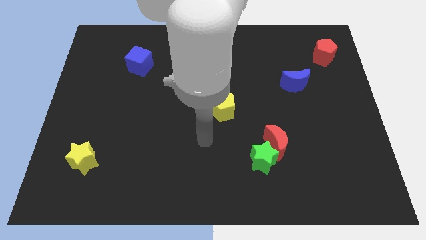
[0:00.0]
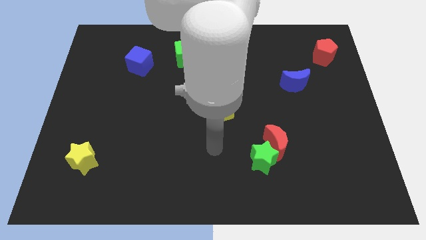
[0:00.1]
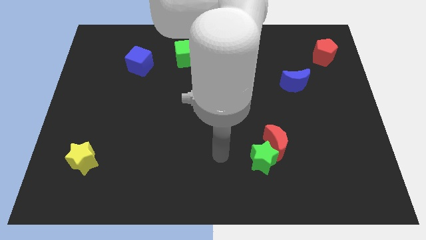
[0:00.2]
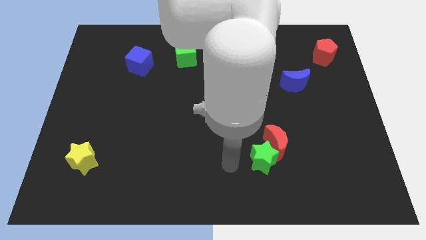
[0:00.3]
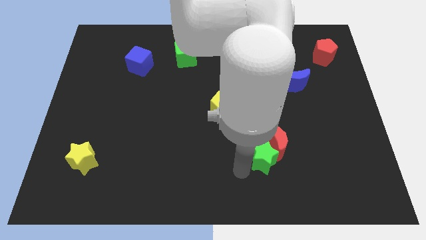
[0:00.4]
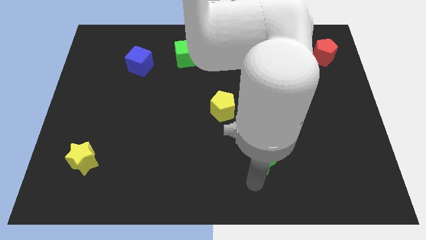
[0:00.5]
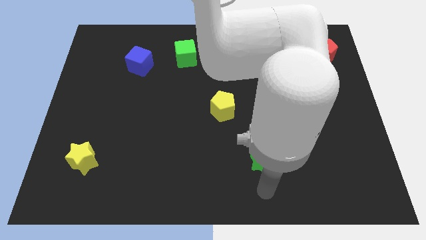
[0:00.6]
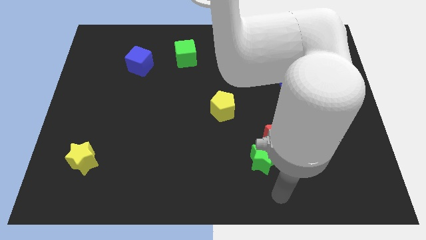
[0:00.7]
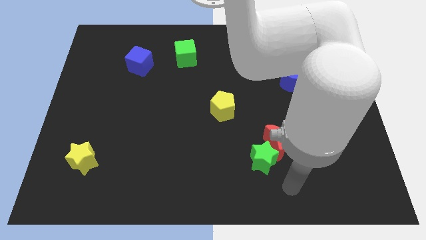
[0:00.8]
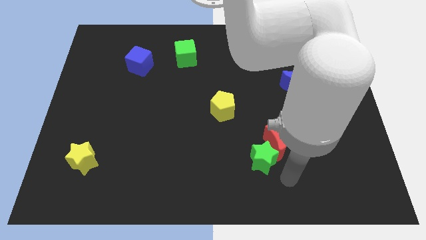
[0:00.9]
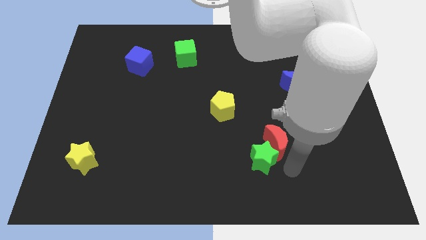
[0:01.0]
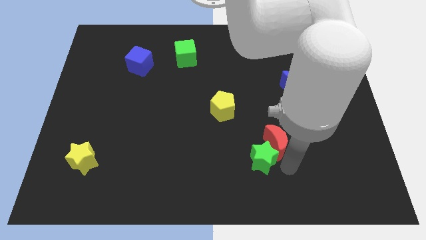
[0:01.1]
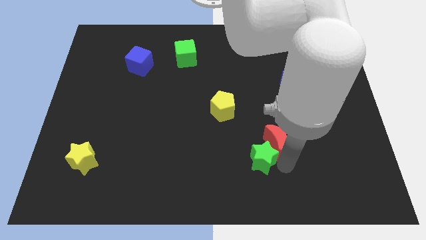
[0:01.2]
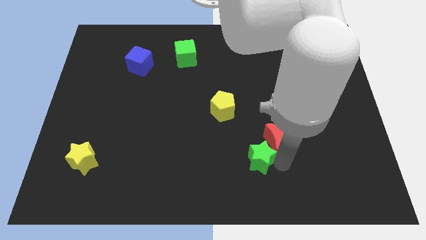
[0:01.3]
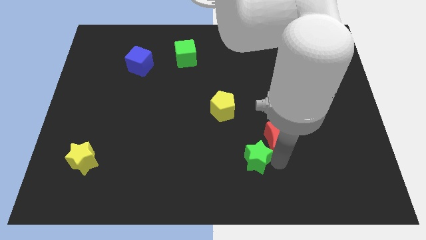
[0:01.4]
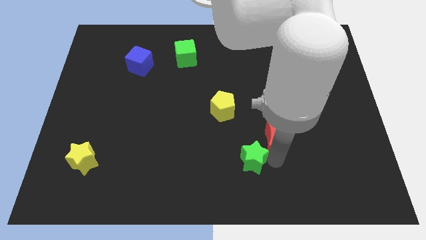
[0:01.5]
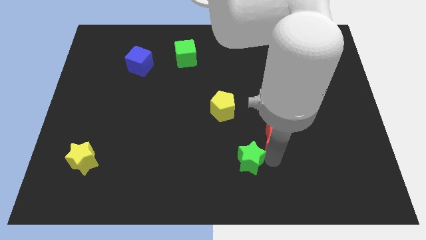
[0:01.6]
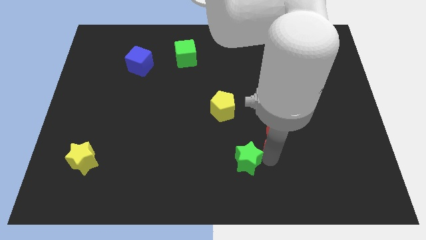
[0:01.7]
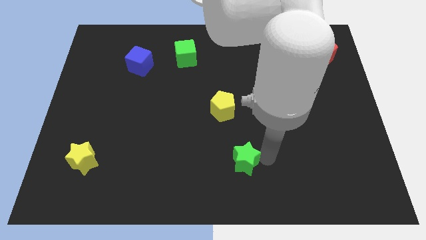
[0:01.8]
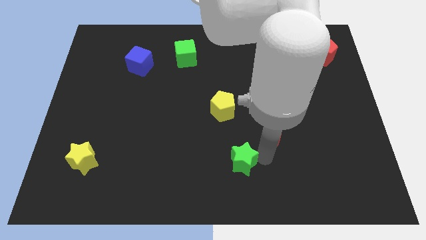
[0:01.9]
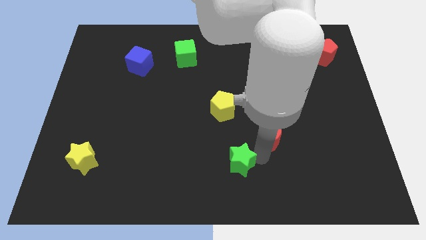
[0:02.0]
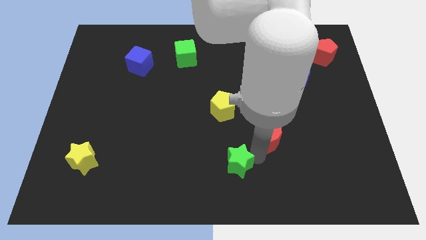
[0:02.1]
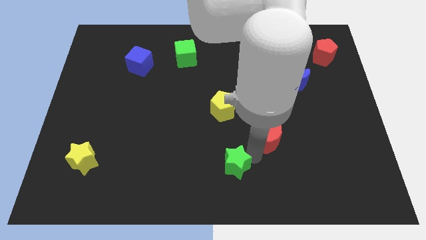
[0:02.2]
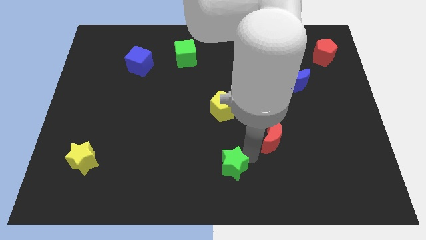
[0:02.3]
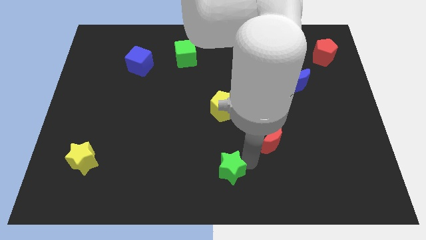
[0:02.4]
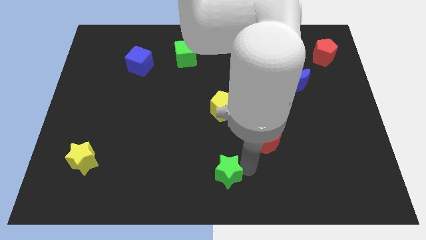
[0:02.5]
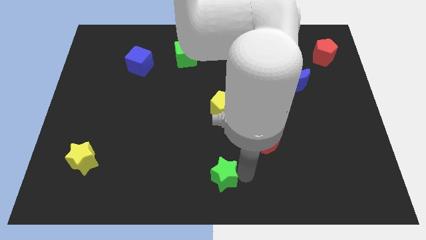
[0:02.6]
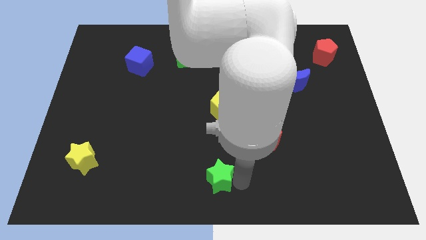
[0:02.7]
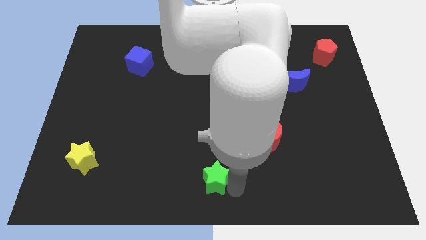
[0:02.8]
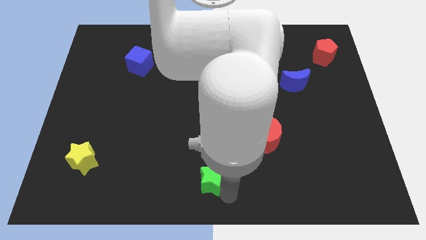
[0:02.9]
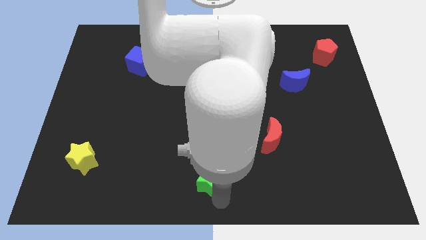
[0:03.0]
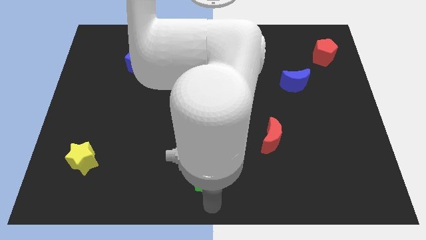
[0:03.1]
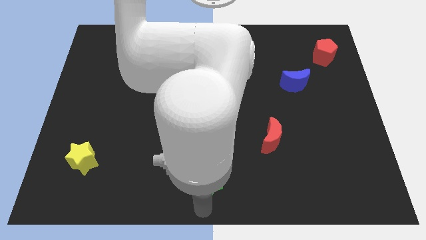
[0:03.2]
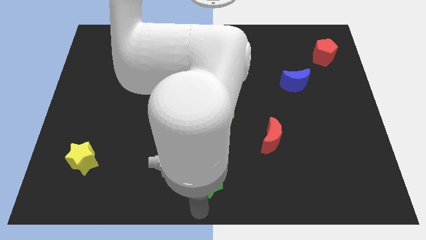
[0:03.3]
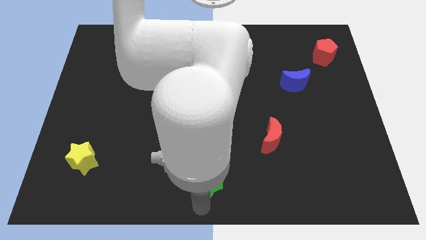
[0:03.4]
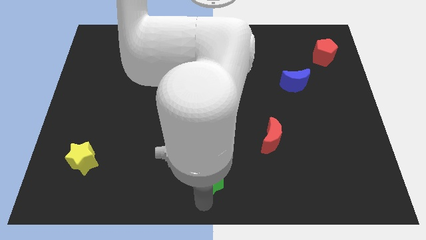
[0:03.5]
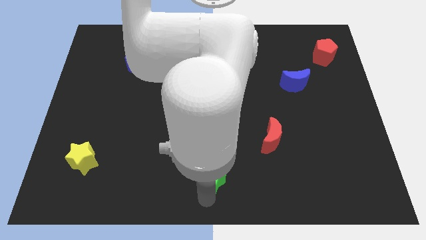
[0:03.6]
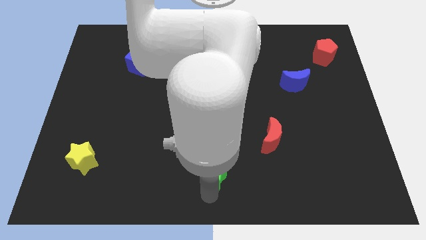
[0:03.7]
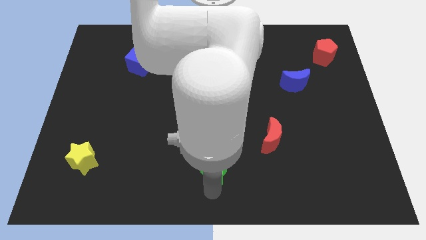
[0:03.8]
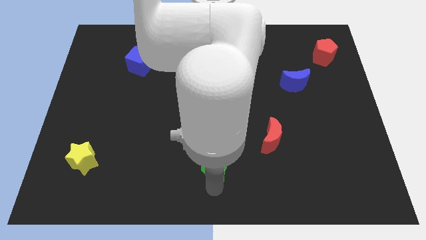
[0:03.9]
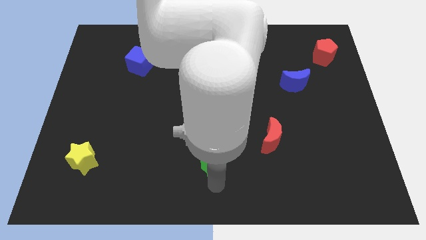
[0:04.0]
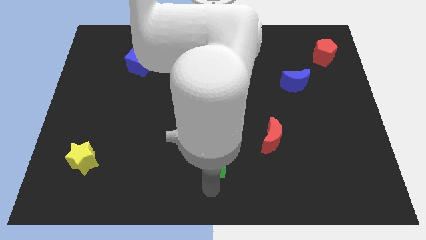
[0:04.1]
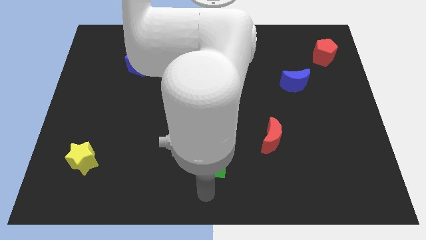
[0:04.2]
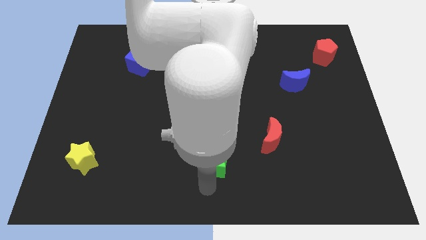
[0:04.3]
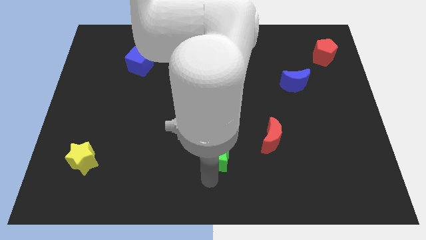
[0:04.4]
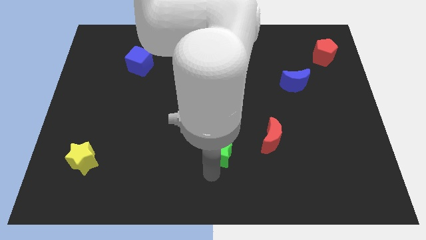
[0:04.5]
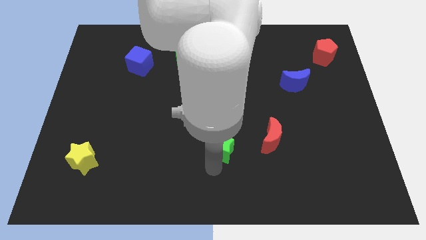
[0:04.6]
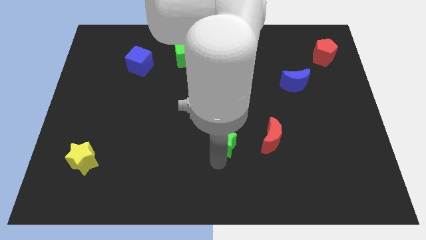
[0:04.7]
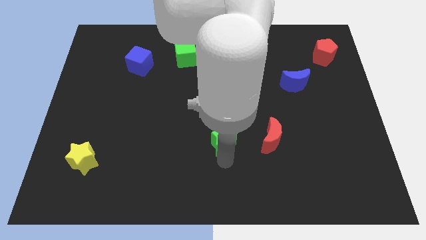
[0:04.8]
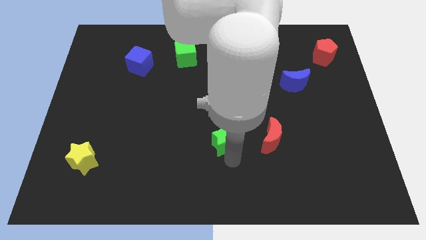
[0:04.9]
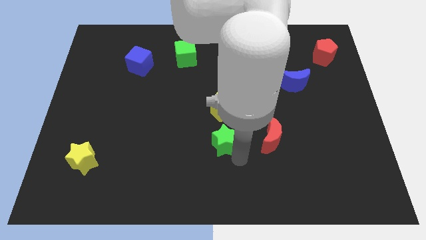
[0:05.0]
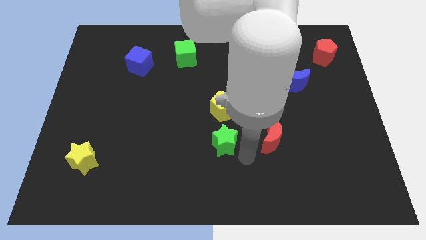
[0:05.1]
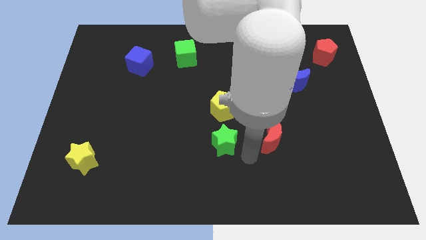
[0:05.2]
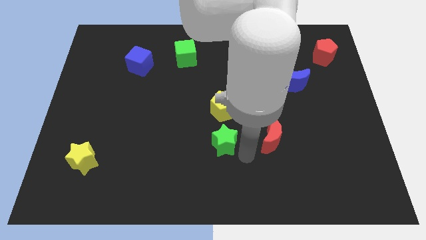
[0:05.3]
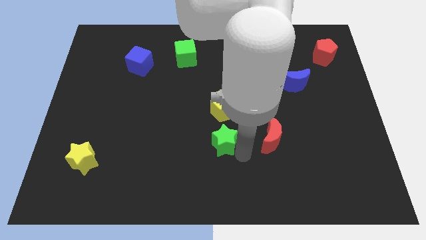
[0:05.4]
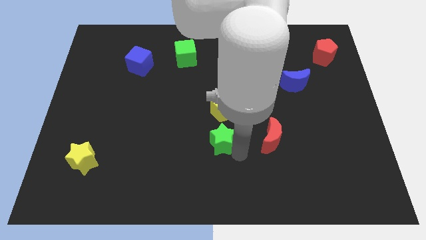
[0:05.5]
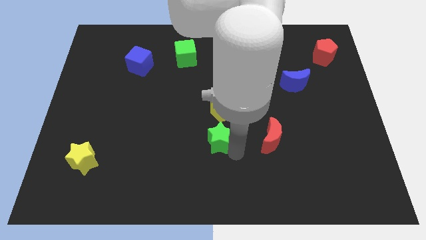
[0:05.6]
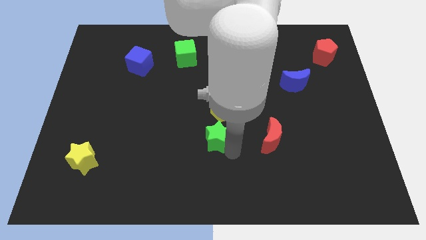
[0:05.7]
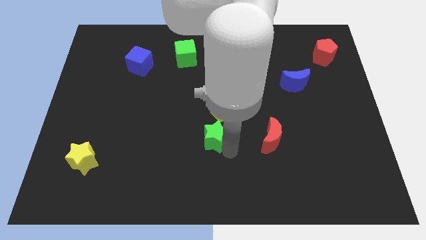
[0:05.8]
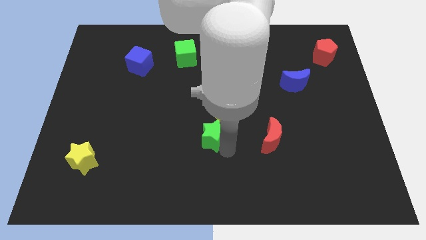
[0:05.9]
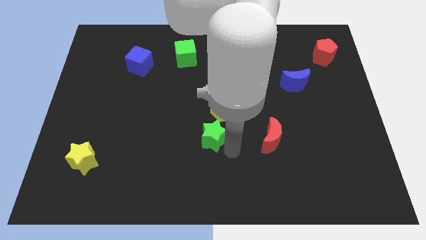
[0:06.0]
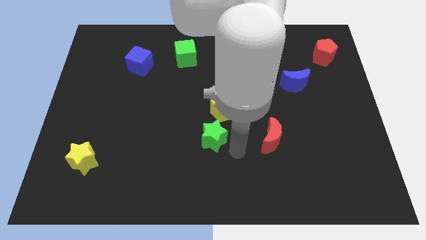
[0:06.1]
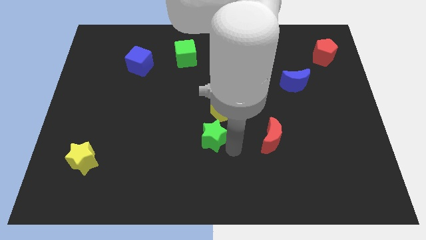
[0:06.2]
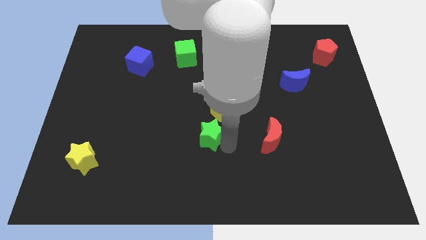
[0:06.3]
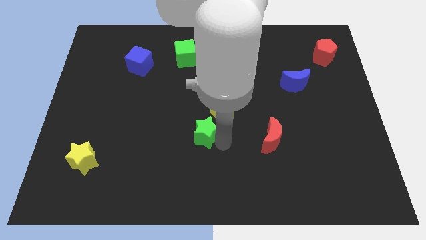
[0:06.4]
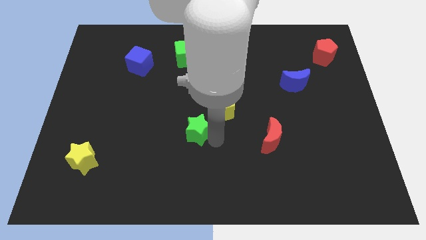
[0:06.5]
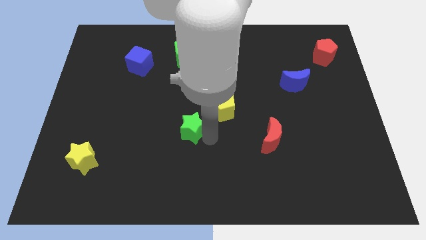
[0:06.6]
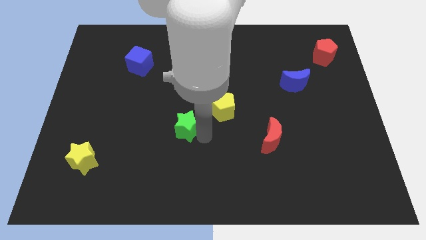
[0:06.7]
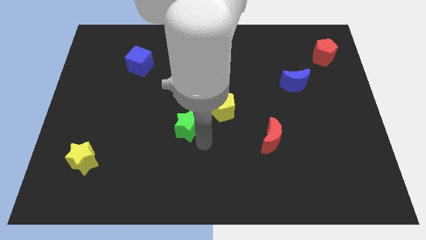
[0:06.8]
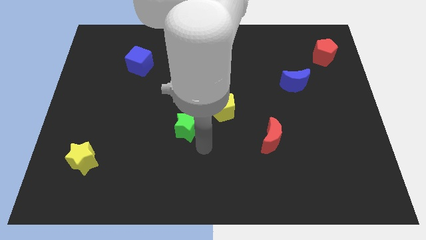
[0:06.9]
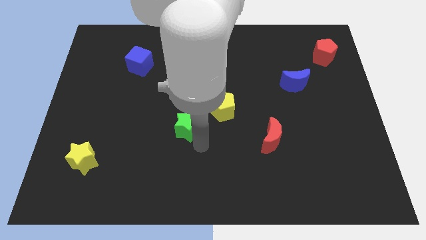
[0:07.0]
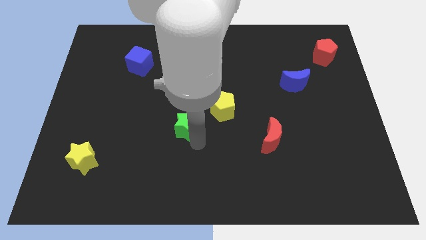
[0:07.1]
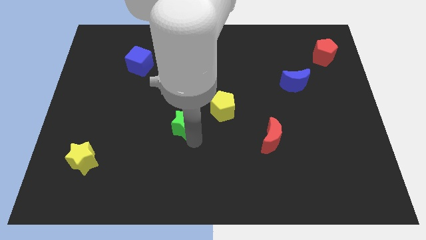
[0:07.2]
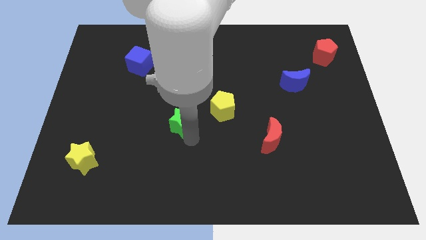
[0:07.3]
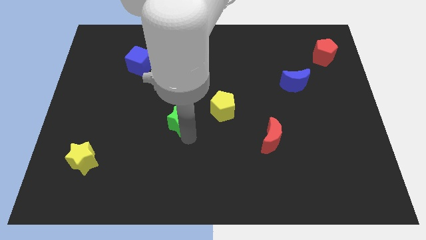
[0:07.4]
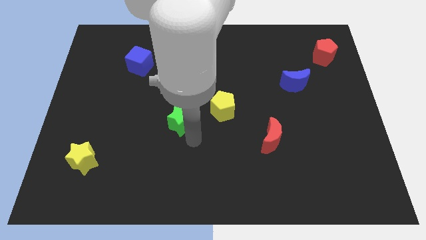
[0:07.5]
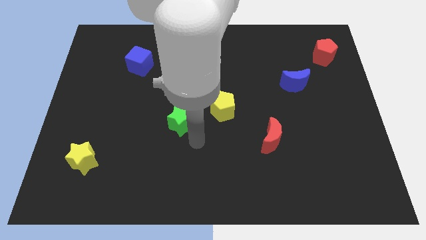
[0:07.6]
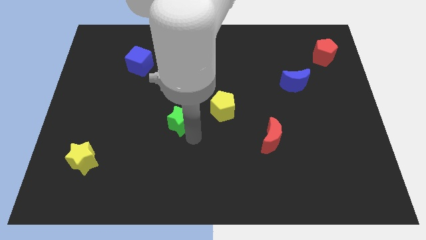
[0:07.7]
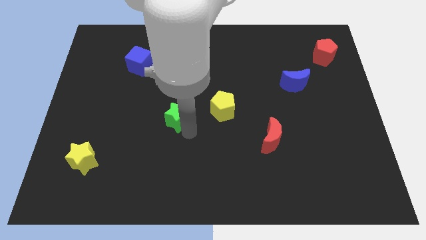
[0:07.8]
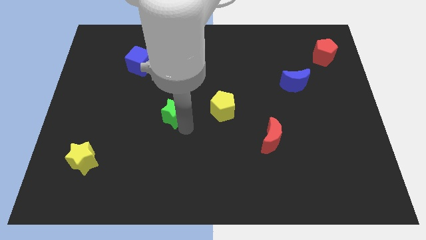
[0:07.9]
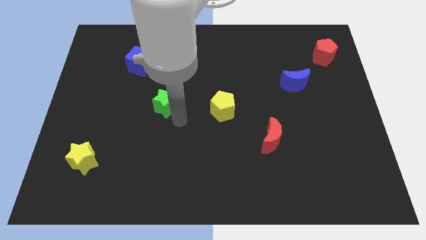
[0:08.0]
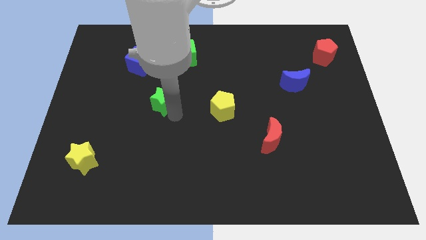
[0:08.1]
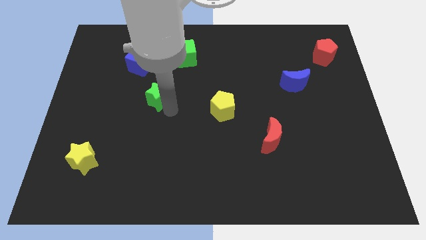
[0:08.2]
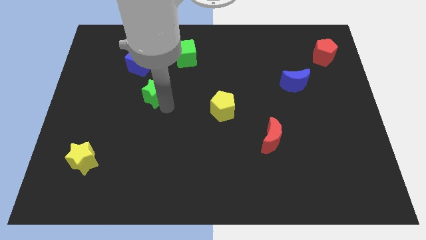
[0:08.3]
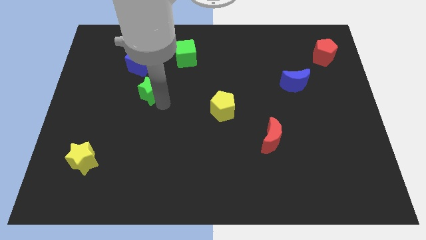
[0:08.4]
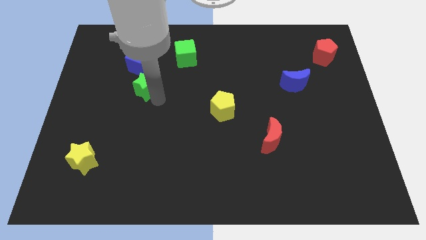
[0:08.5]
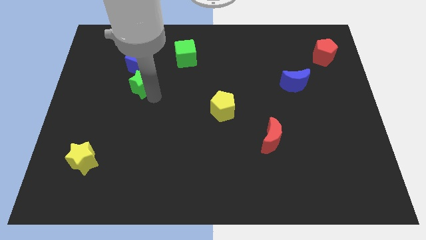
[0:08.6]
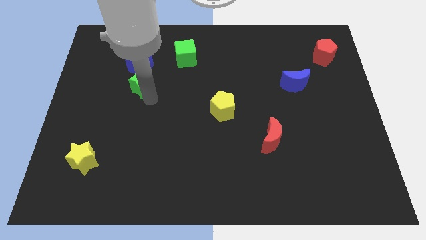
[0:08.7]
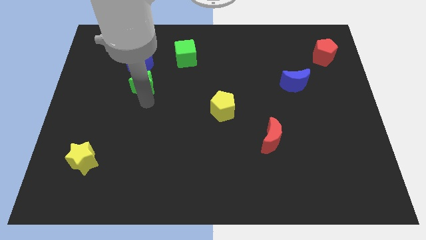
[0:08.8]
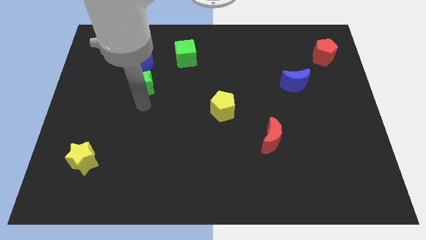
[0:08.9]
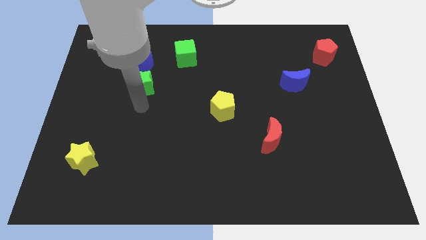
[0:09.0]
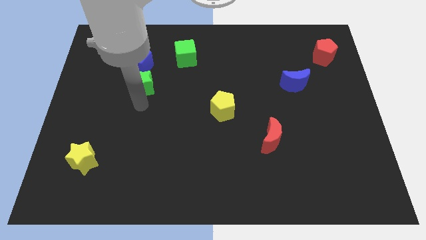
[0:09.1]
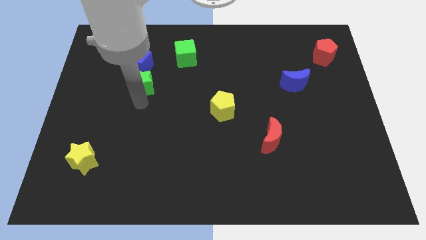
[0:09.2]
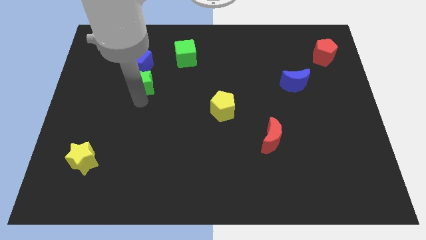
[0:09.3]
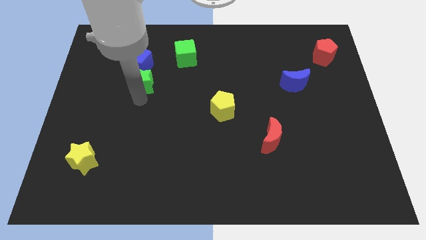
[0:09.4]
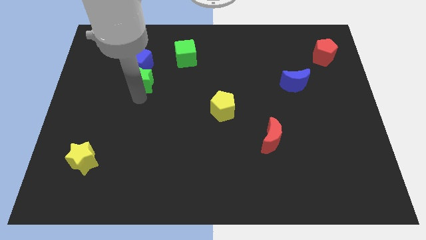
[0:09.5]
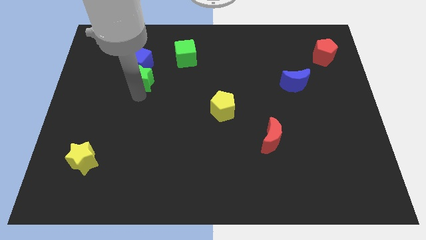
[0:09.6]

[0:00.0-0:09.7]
move the green star close to the blue cube
